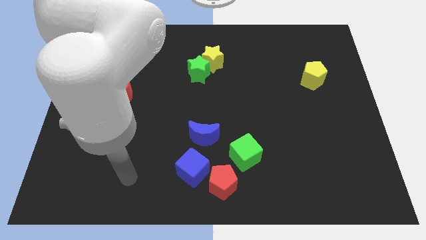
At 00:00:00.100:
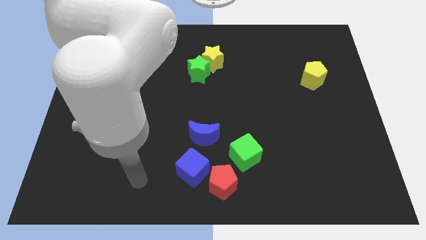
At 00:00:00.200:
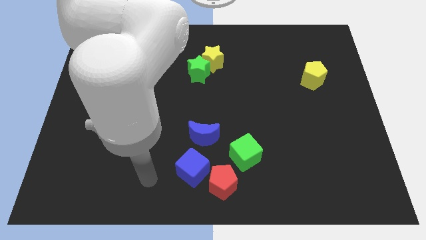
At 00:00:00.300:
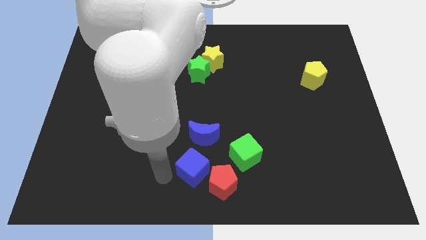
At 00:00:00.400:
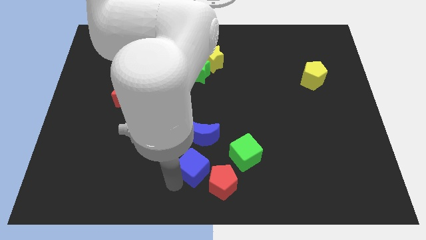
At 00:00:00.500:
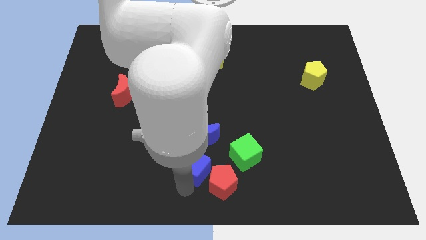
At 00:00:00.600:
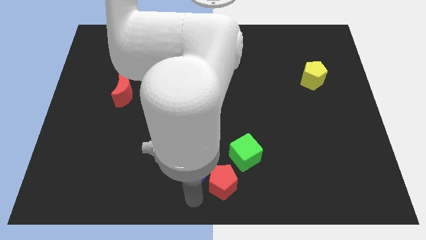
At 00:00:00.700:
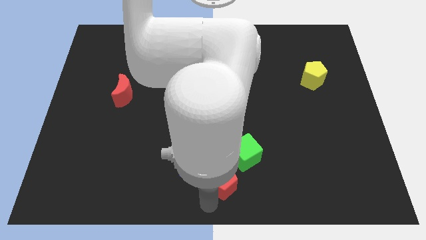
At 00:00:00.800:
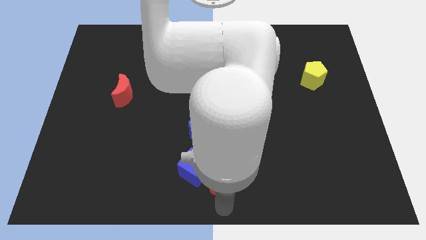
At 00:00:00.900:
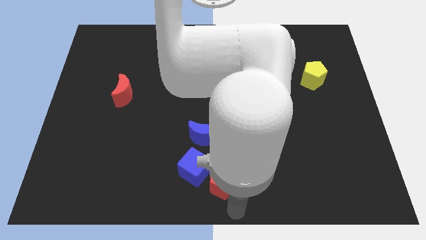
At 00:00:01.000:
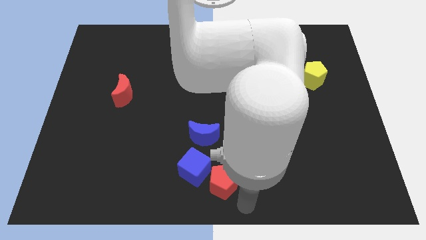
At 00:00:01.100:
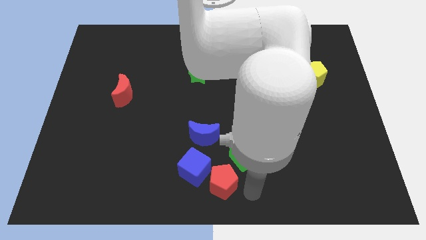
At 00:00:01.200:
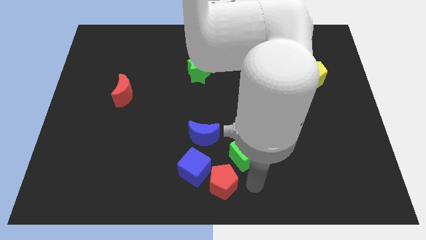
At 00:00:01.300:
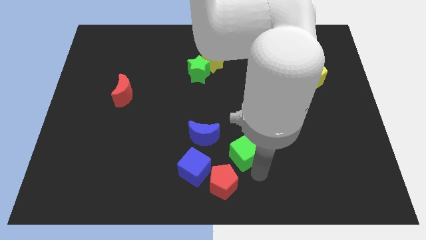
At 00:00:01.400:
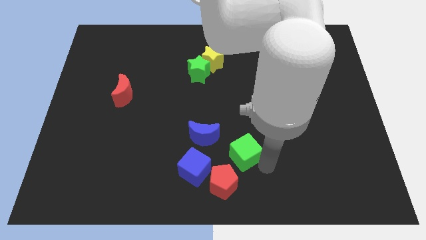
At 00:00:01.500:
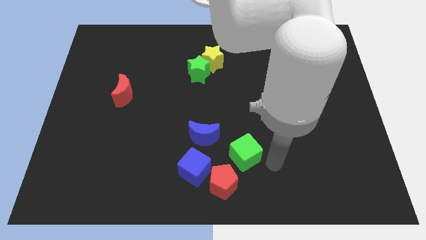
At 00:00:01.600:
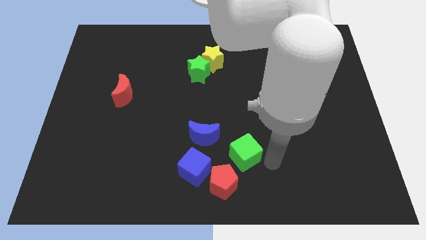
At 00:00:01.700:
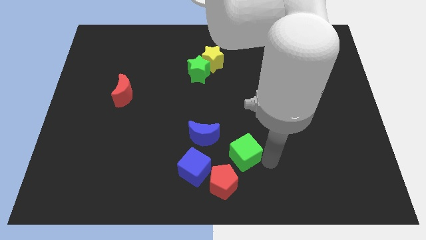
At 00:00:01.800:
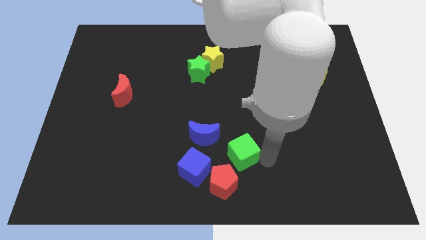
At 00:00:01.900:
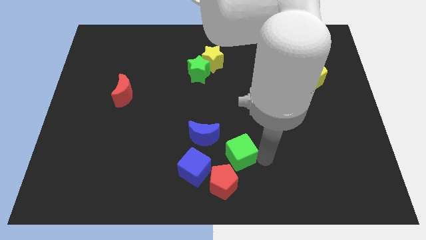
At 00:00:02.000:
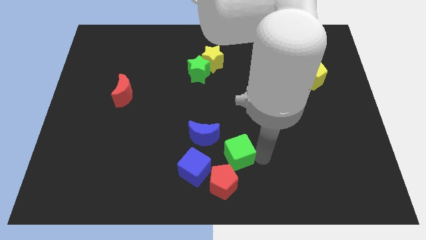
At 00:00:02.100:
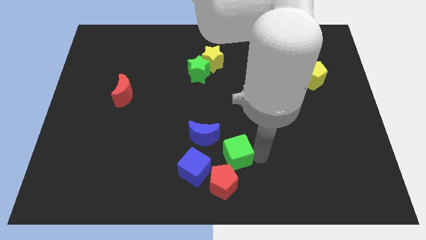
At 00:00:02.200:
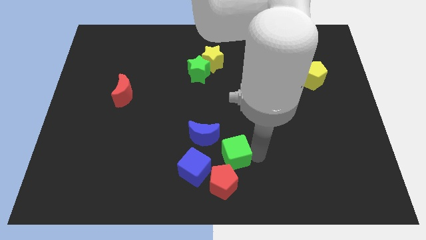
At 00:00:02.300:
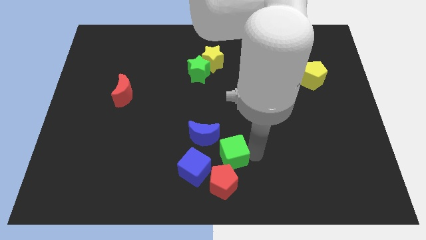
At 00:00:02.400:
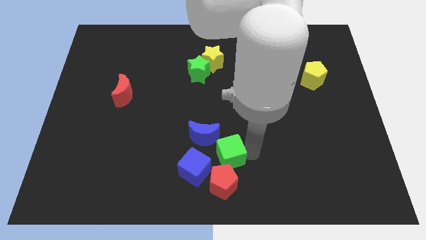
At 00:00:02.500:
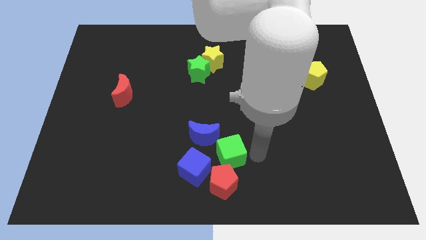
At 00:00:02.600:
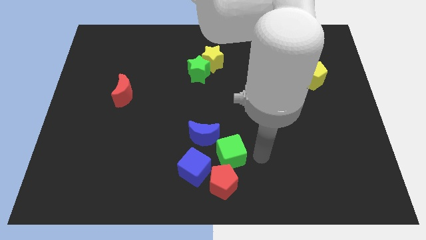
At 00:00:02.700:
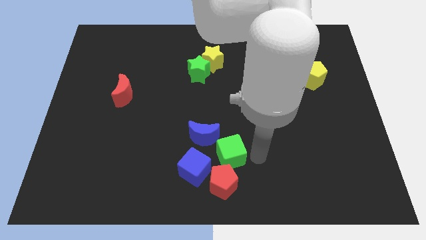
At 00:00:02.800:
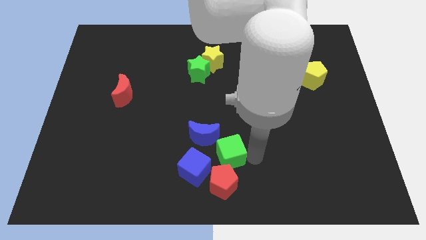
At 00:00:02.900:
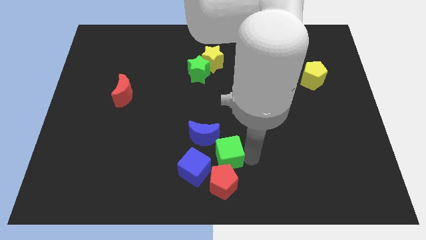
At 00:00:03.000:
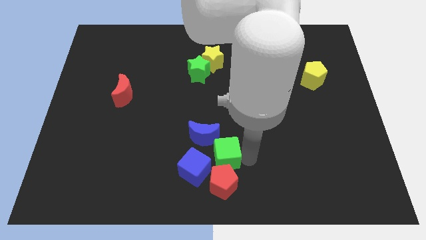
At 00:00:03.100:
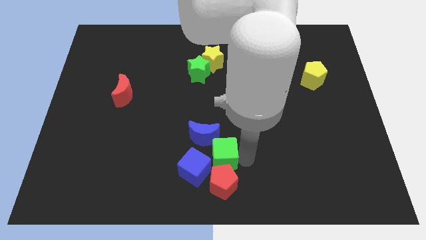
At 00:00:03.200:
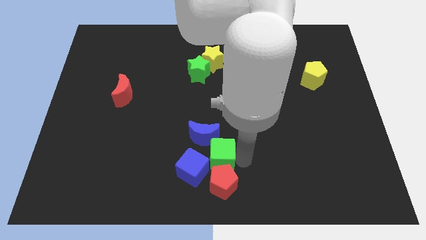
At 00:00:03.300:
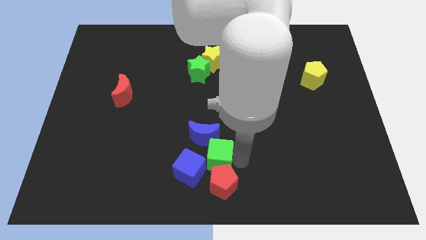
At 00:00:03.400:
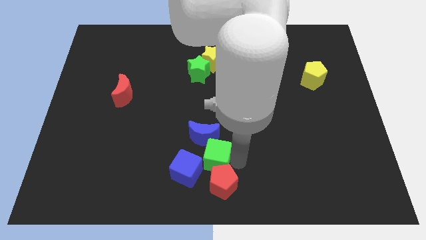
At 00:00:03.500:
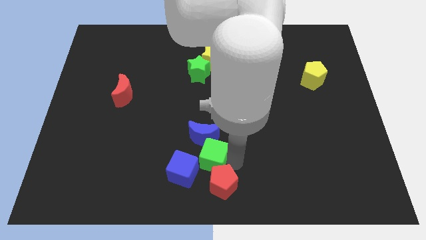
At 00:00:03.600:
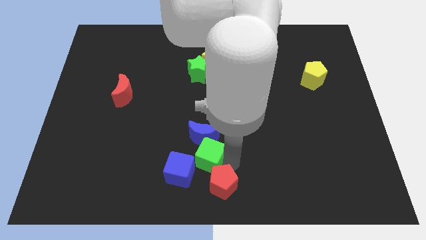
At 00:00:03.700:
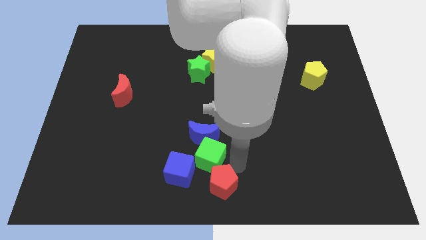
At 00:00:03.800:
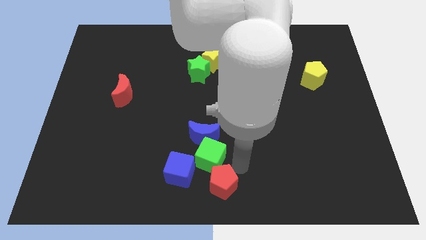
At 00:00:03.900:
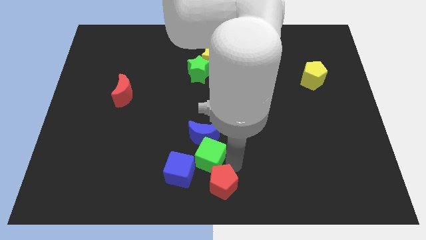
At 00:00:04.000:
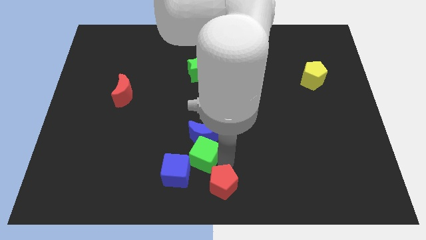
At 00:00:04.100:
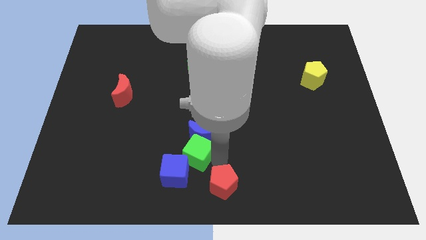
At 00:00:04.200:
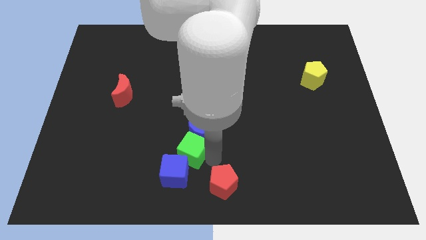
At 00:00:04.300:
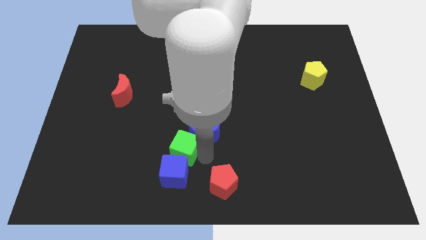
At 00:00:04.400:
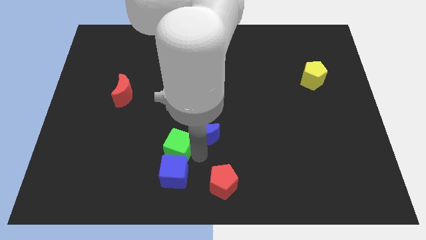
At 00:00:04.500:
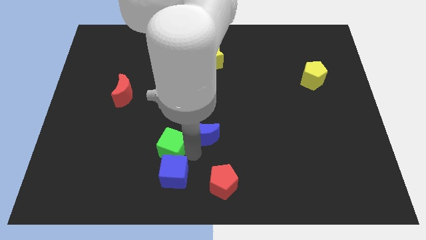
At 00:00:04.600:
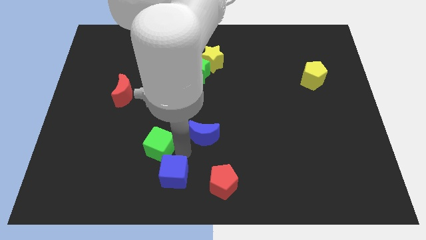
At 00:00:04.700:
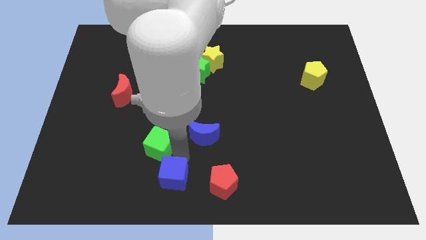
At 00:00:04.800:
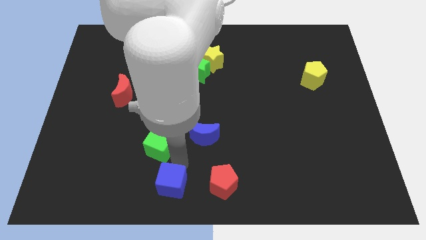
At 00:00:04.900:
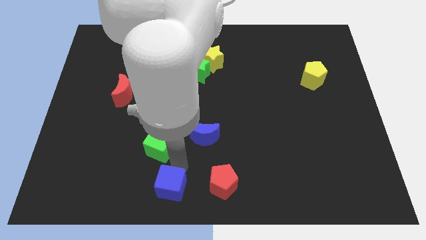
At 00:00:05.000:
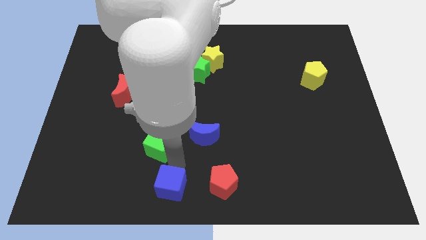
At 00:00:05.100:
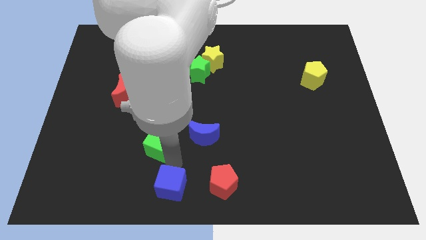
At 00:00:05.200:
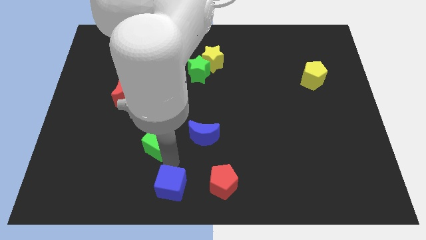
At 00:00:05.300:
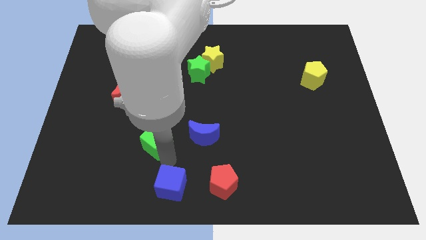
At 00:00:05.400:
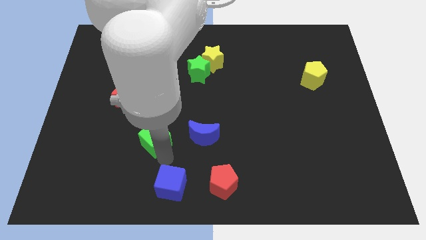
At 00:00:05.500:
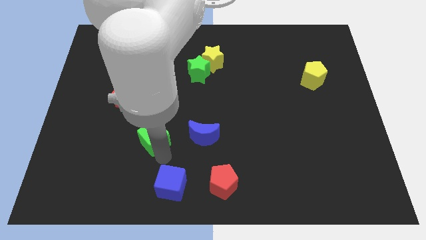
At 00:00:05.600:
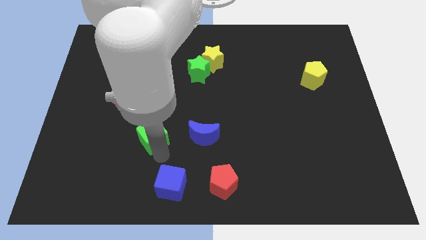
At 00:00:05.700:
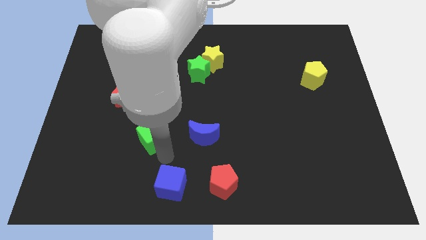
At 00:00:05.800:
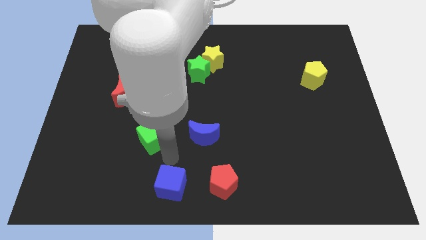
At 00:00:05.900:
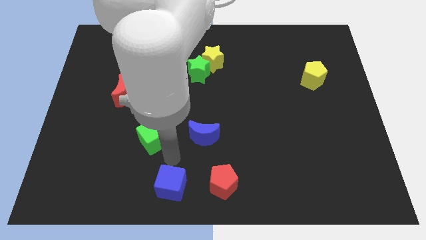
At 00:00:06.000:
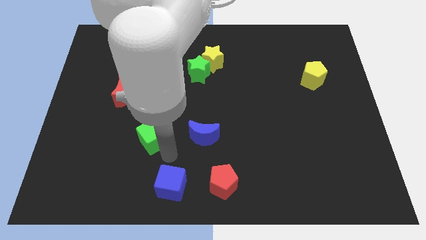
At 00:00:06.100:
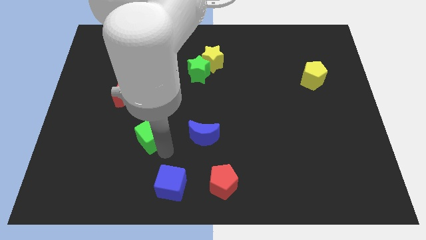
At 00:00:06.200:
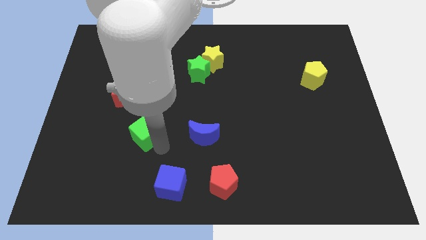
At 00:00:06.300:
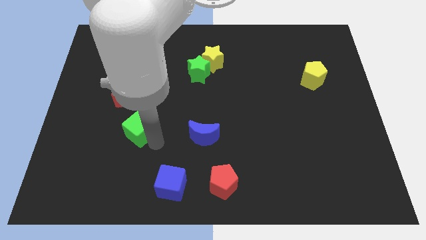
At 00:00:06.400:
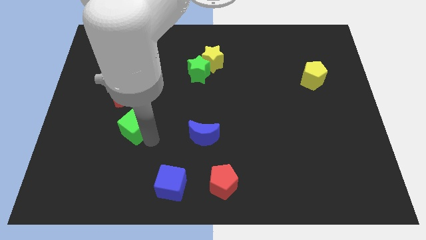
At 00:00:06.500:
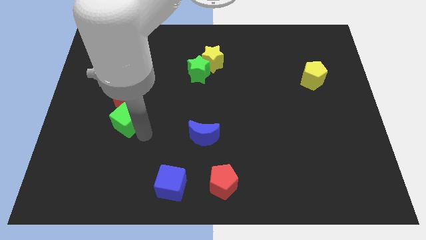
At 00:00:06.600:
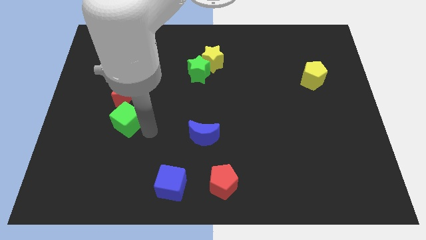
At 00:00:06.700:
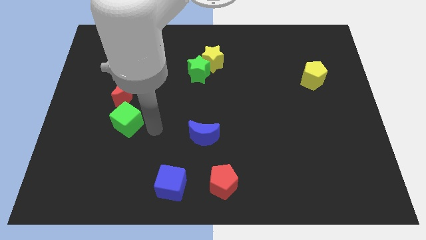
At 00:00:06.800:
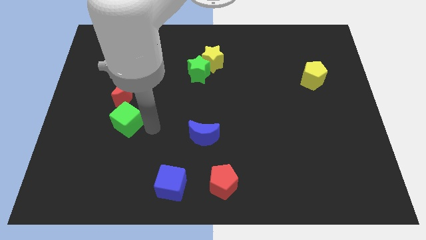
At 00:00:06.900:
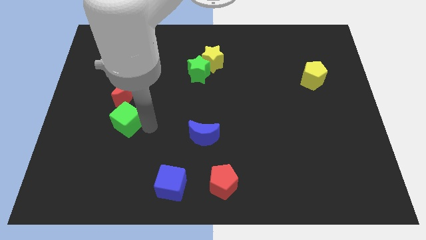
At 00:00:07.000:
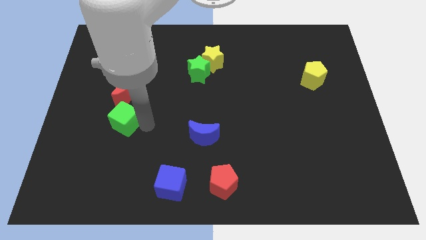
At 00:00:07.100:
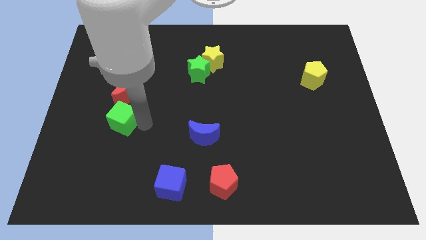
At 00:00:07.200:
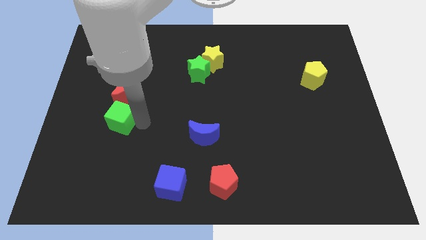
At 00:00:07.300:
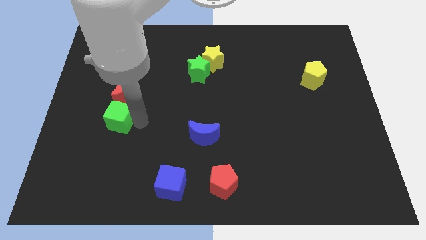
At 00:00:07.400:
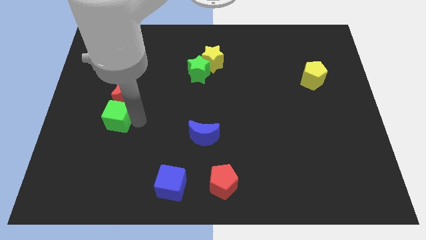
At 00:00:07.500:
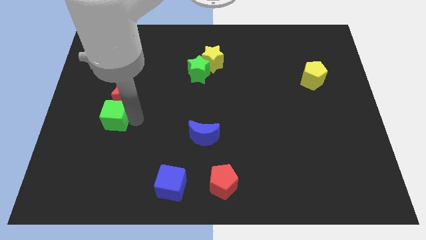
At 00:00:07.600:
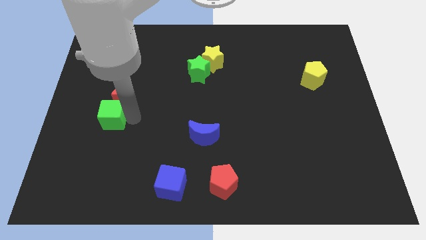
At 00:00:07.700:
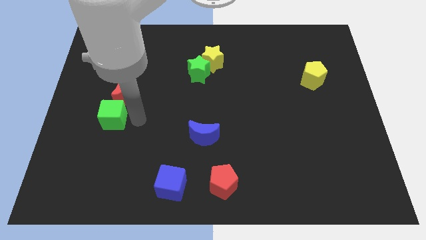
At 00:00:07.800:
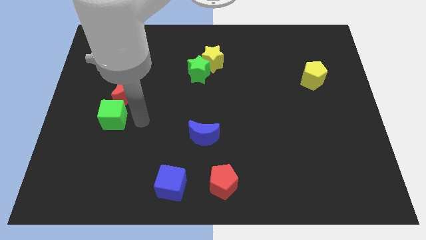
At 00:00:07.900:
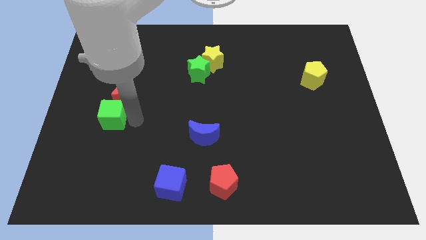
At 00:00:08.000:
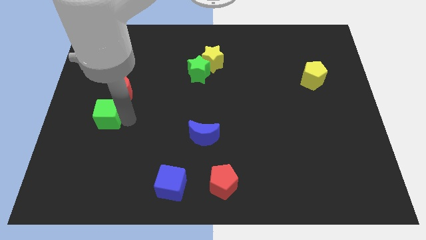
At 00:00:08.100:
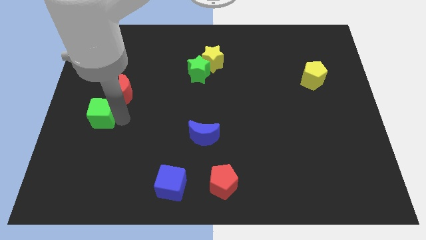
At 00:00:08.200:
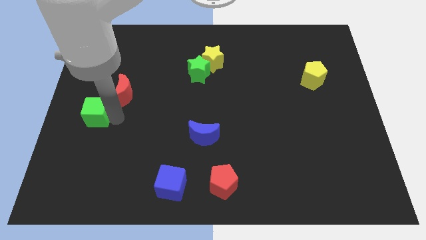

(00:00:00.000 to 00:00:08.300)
slide the green cube to the left side
